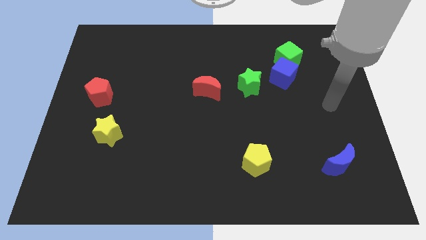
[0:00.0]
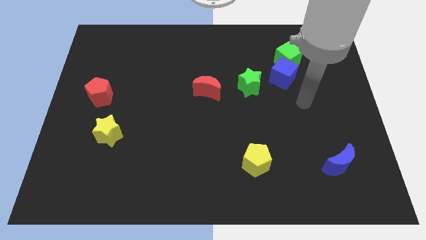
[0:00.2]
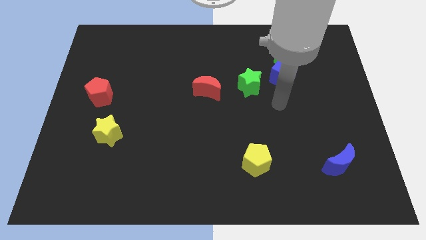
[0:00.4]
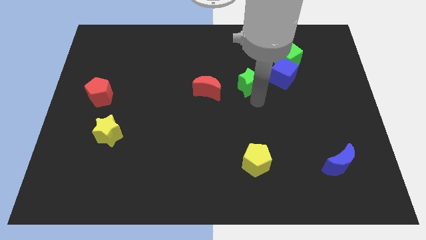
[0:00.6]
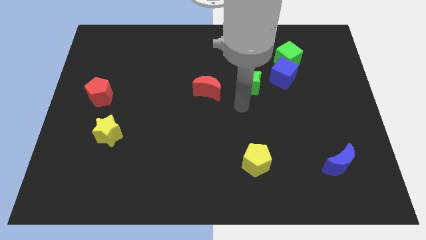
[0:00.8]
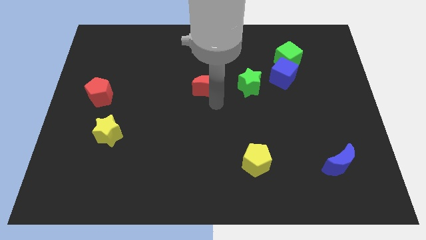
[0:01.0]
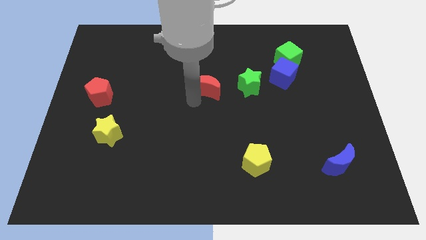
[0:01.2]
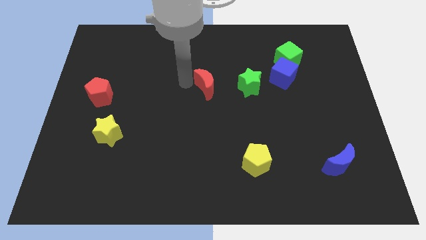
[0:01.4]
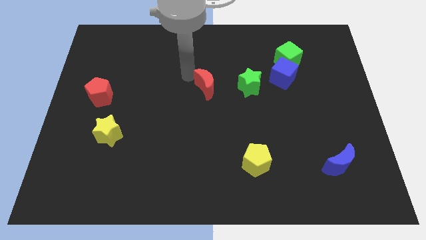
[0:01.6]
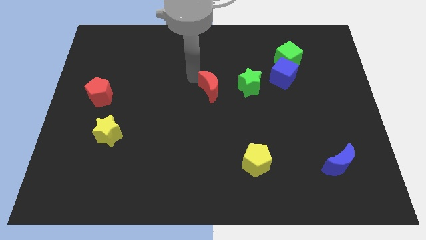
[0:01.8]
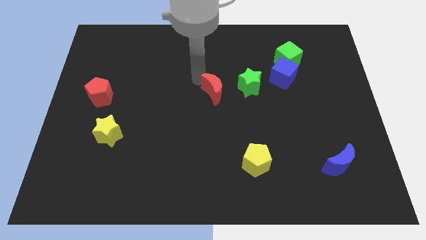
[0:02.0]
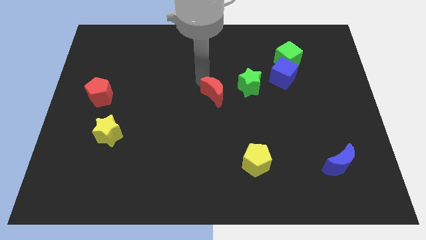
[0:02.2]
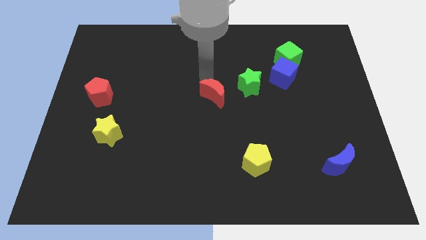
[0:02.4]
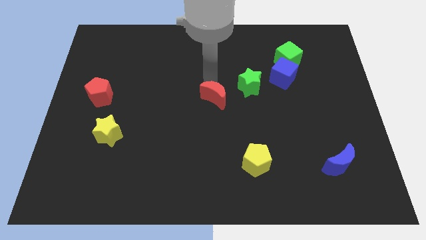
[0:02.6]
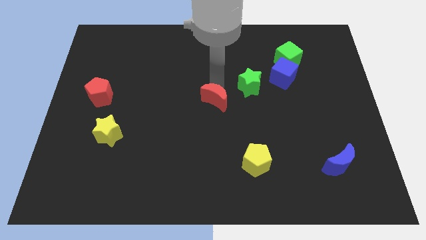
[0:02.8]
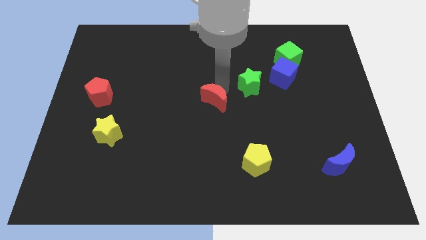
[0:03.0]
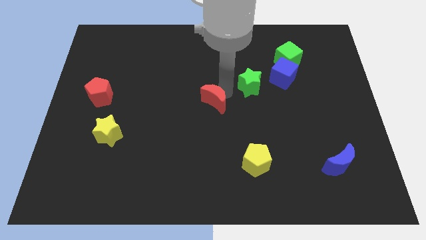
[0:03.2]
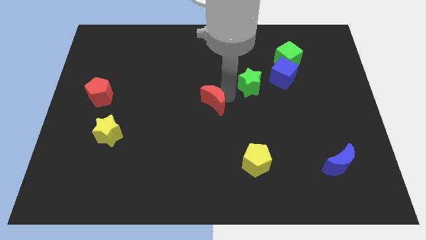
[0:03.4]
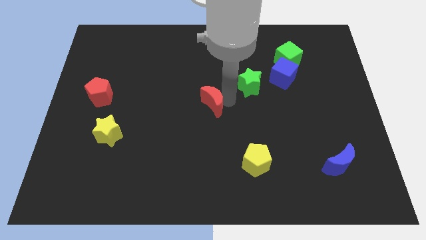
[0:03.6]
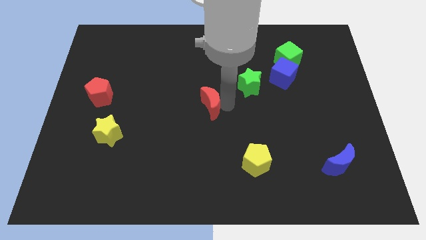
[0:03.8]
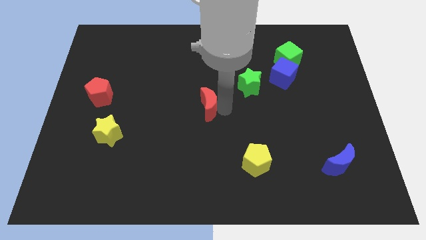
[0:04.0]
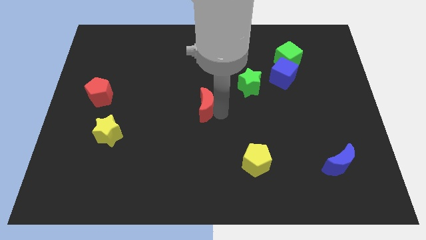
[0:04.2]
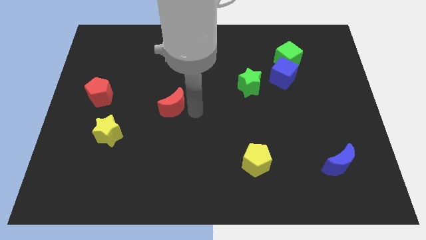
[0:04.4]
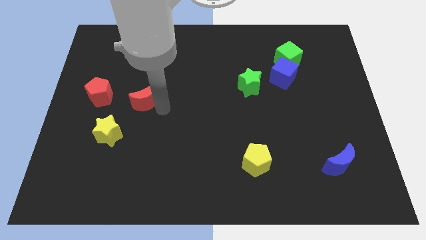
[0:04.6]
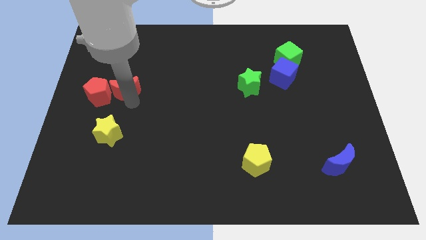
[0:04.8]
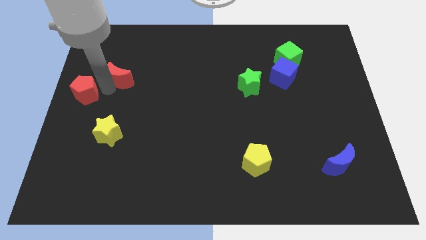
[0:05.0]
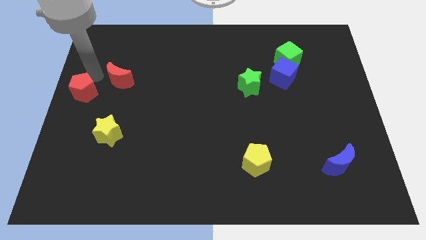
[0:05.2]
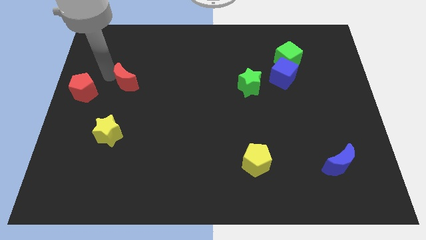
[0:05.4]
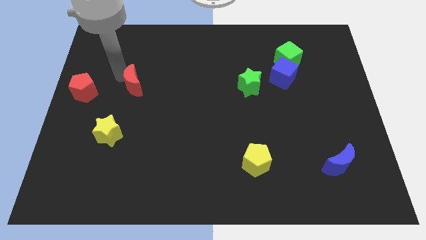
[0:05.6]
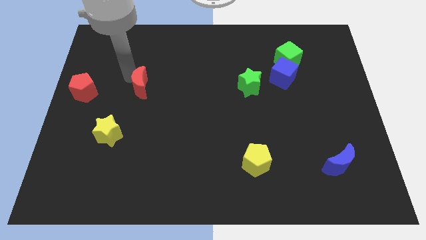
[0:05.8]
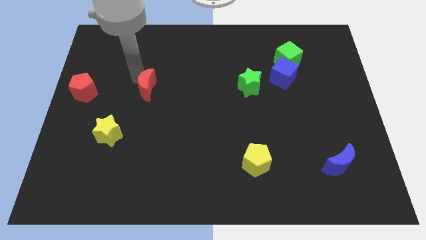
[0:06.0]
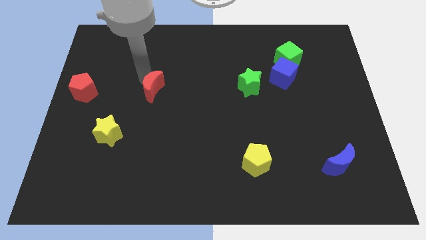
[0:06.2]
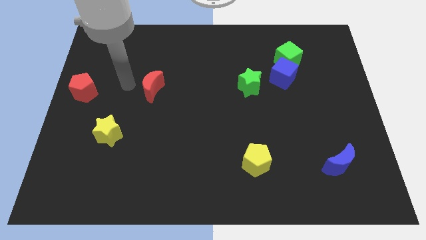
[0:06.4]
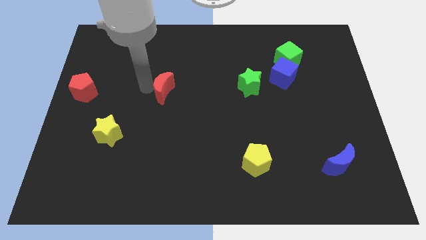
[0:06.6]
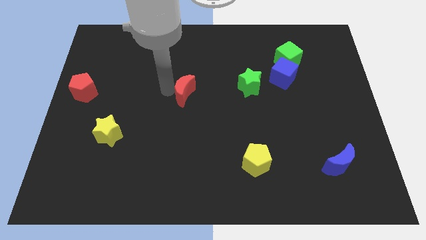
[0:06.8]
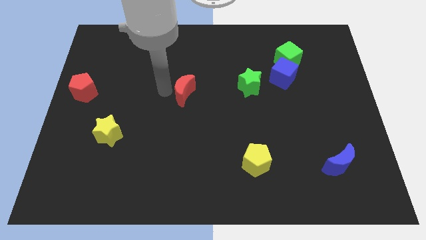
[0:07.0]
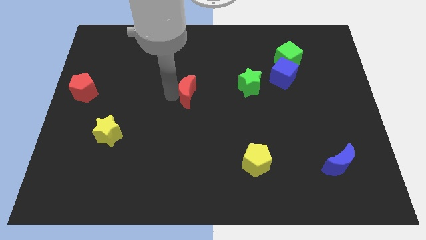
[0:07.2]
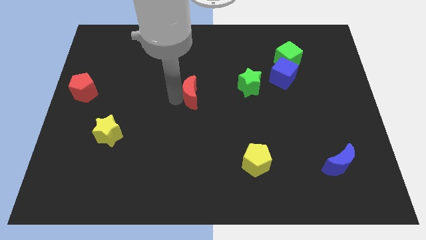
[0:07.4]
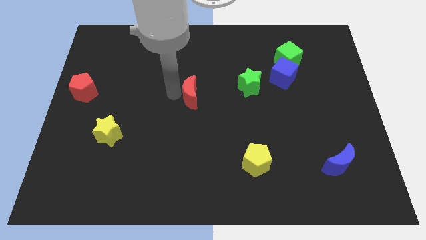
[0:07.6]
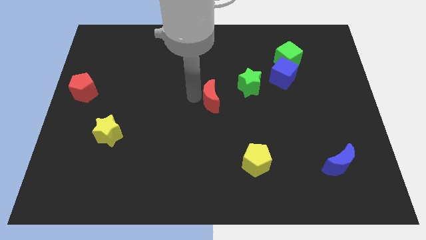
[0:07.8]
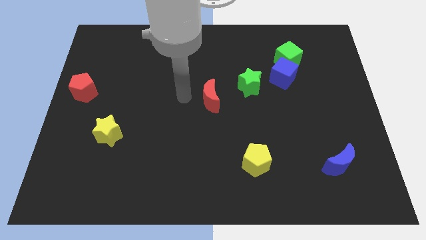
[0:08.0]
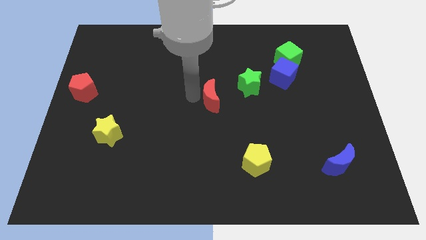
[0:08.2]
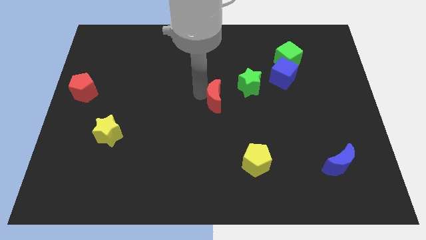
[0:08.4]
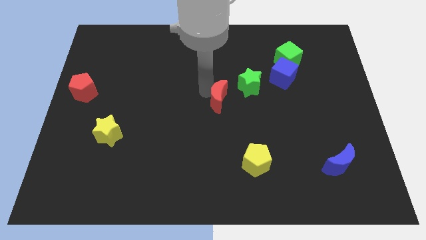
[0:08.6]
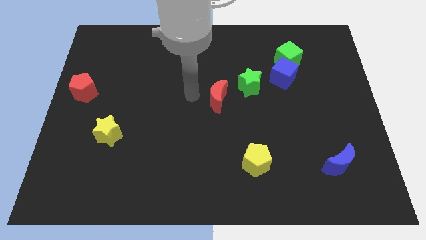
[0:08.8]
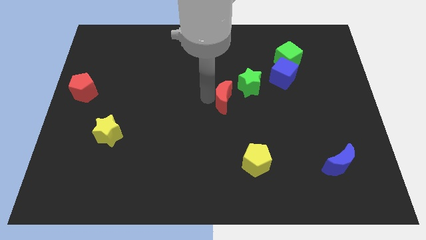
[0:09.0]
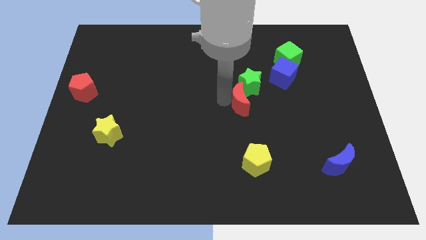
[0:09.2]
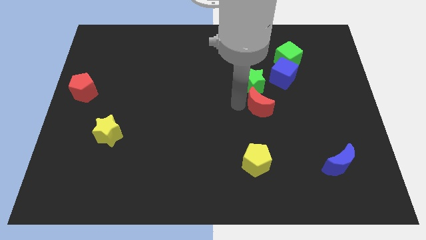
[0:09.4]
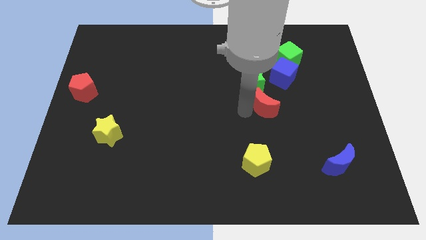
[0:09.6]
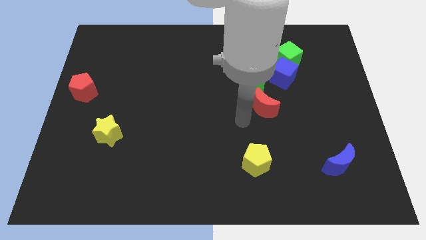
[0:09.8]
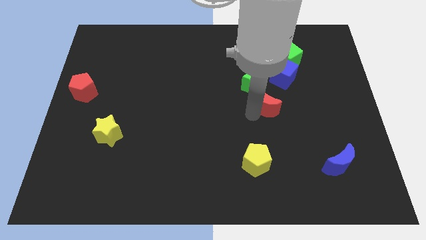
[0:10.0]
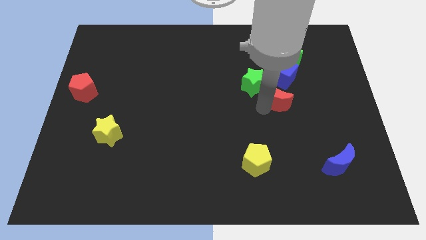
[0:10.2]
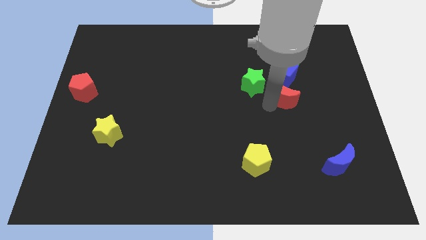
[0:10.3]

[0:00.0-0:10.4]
put the red moon below the green cube

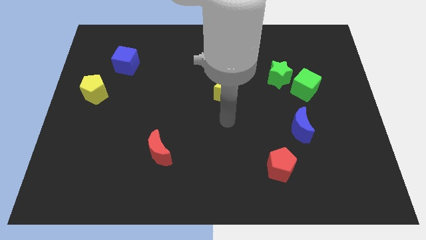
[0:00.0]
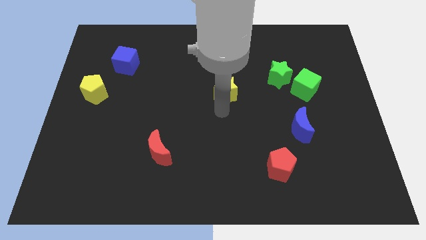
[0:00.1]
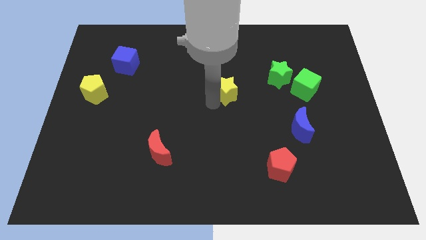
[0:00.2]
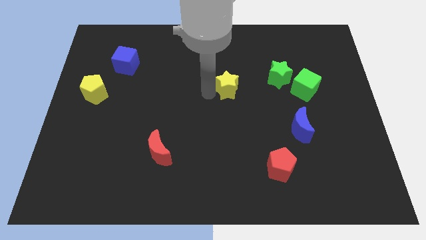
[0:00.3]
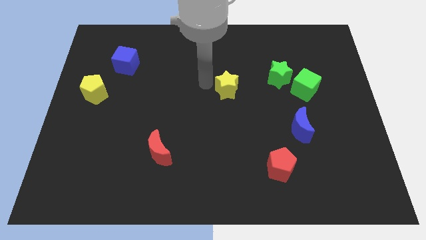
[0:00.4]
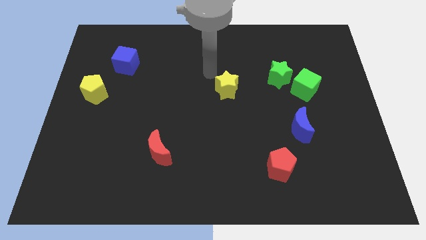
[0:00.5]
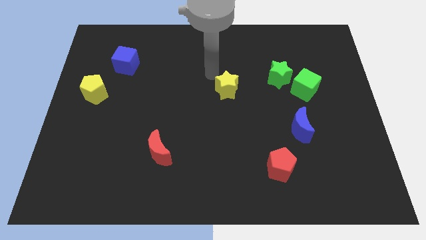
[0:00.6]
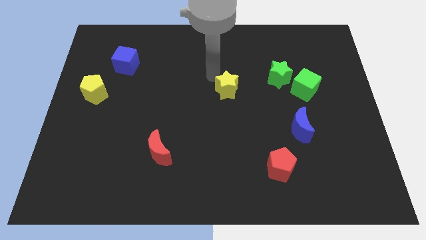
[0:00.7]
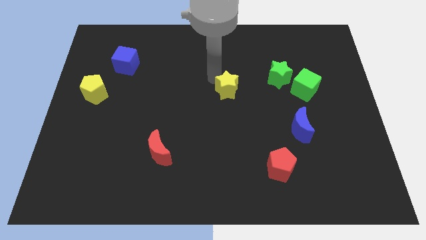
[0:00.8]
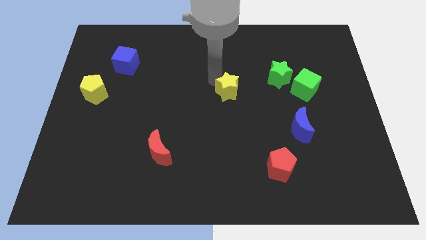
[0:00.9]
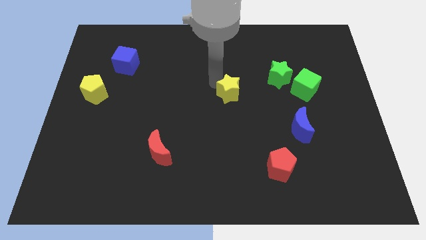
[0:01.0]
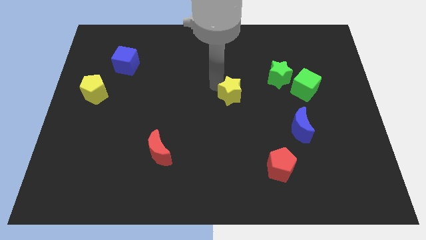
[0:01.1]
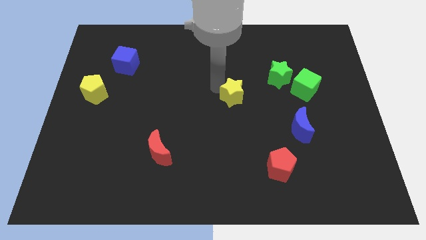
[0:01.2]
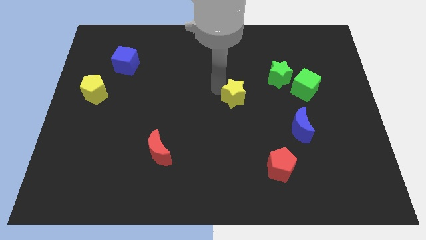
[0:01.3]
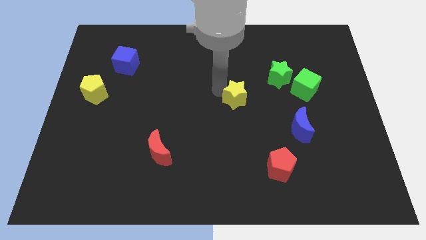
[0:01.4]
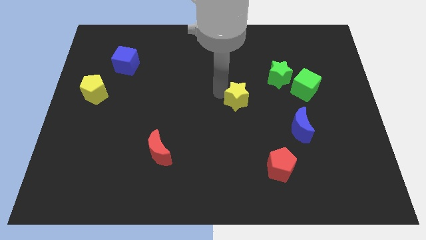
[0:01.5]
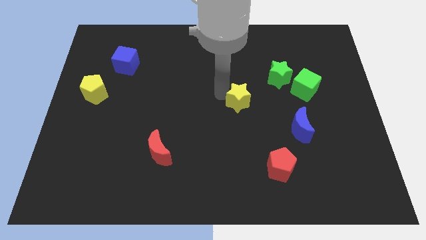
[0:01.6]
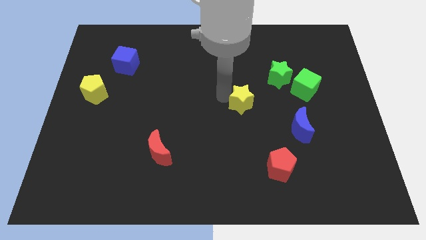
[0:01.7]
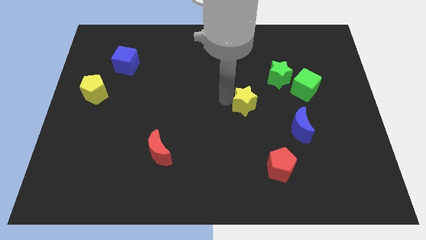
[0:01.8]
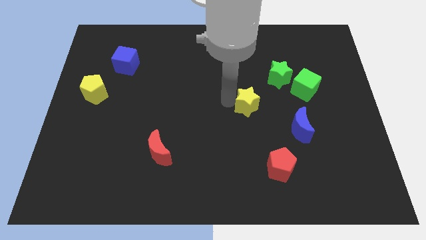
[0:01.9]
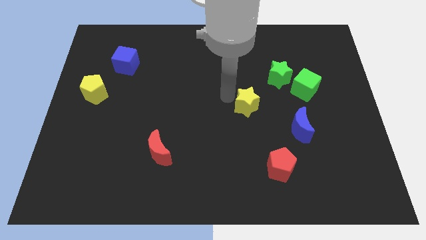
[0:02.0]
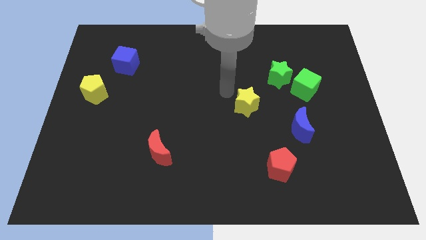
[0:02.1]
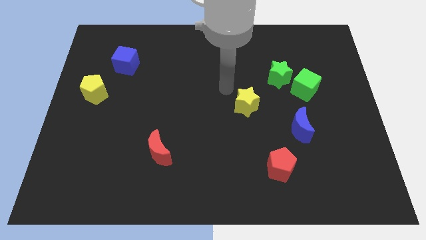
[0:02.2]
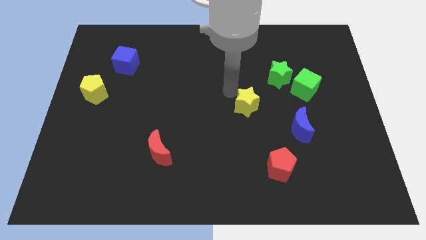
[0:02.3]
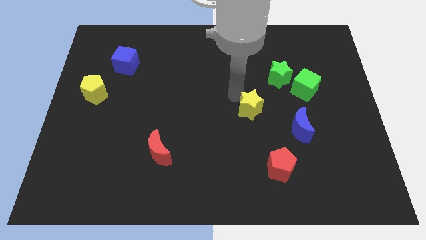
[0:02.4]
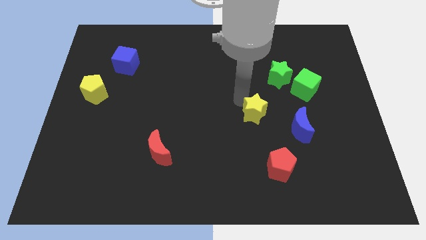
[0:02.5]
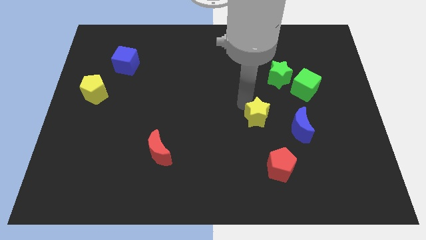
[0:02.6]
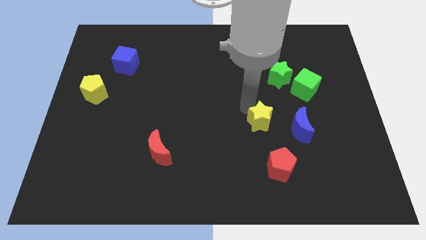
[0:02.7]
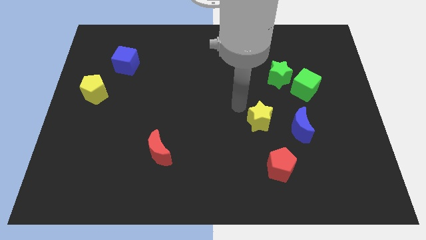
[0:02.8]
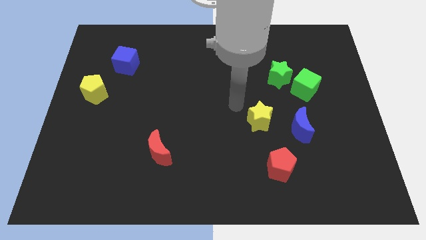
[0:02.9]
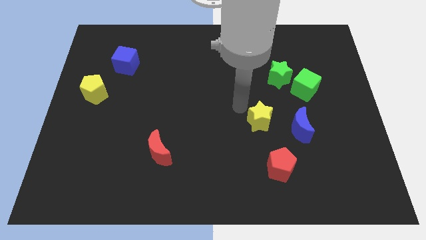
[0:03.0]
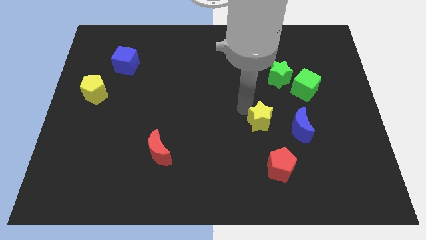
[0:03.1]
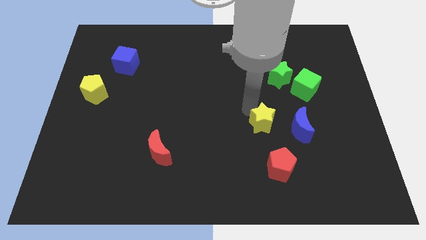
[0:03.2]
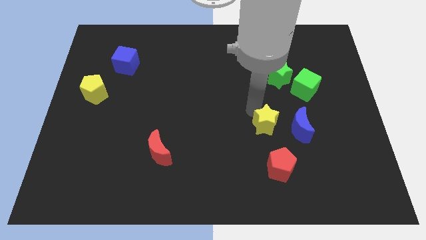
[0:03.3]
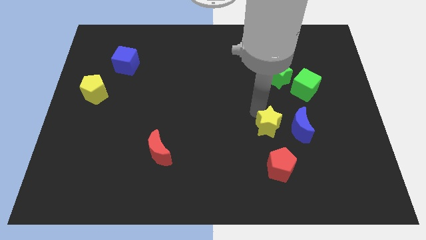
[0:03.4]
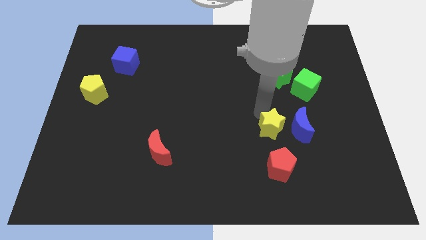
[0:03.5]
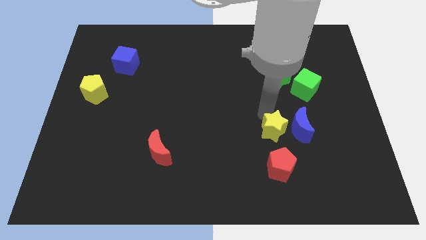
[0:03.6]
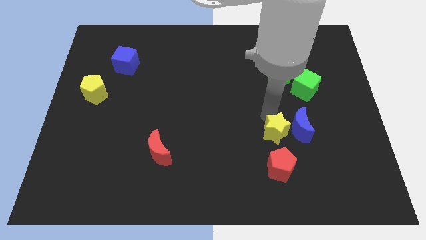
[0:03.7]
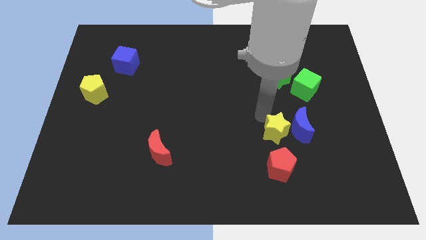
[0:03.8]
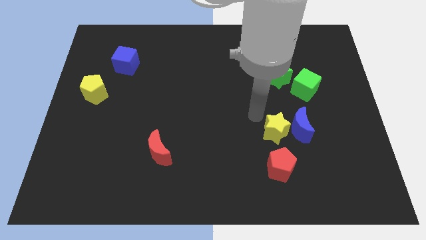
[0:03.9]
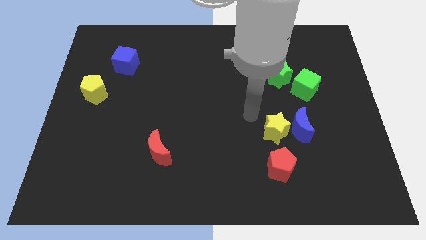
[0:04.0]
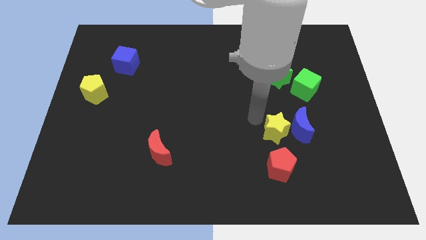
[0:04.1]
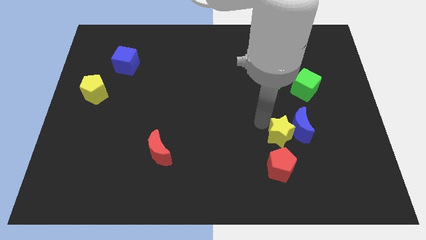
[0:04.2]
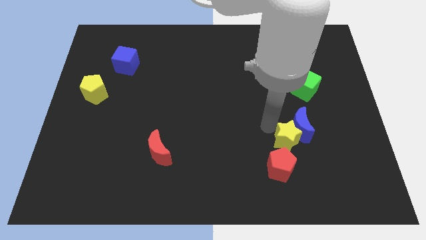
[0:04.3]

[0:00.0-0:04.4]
slide the yellow star diagonally up and to the right of the red pentagon
